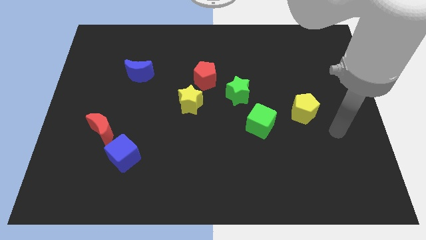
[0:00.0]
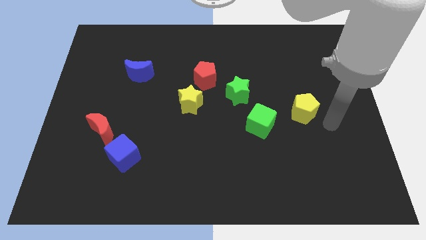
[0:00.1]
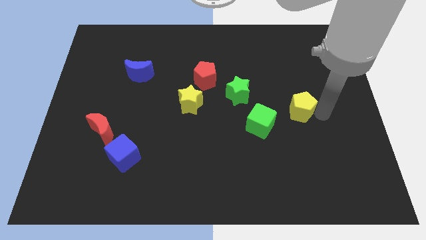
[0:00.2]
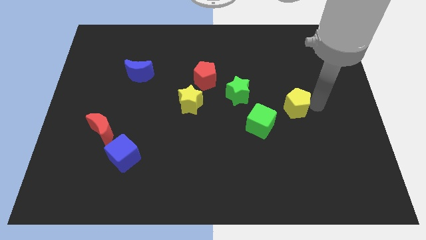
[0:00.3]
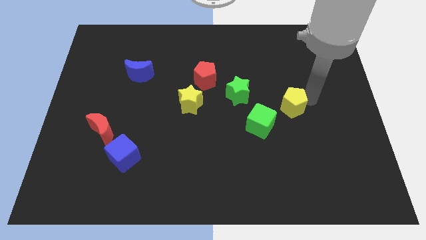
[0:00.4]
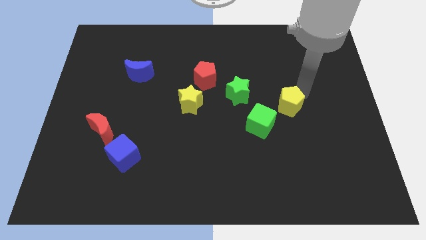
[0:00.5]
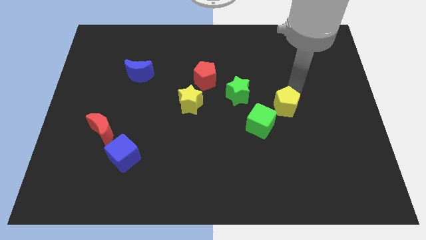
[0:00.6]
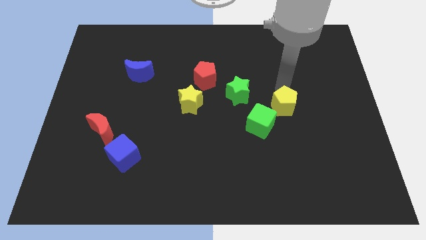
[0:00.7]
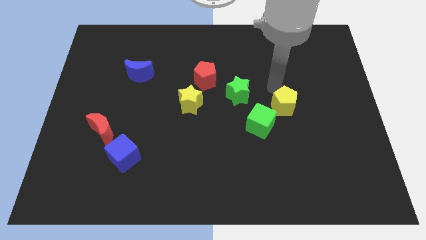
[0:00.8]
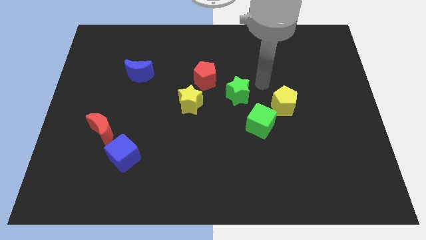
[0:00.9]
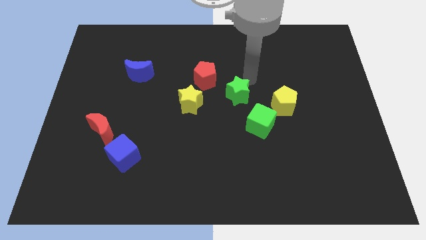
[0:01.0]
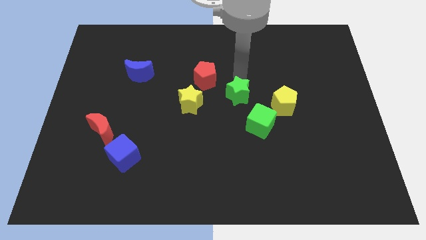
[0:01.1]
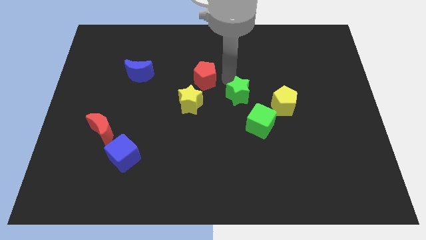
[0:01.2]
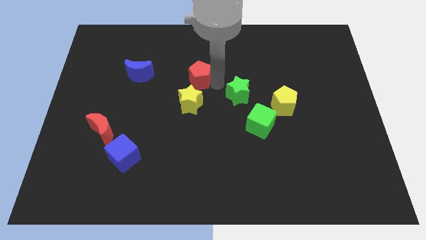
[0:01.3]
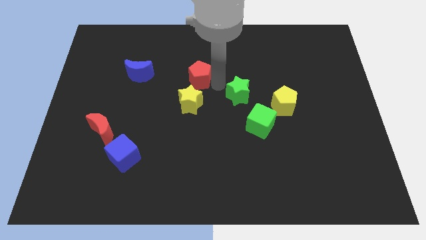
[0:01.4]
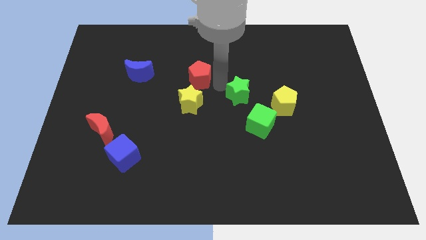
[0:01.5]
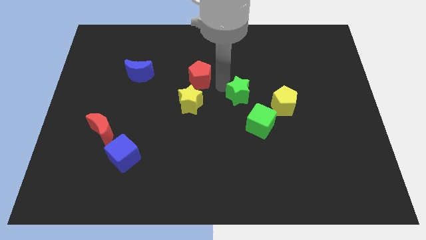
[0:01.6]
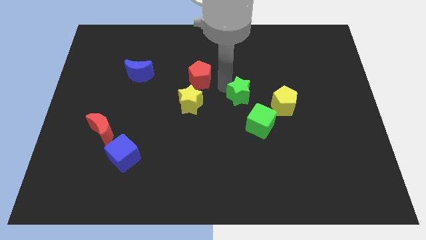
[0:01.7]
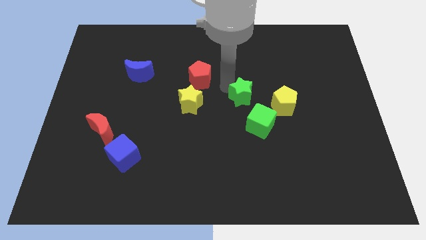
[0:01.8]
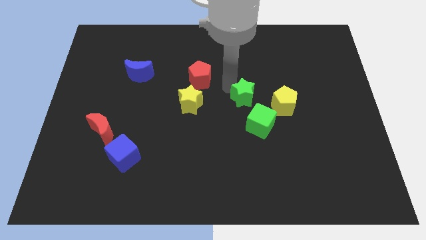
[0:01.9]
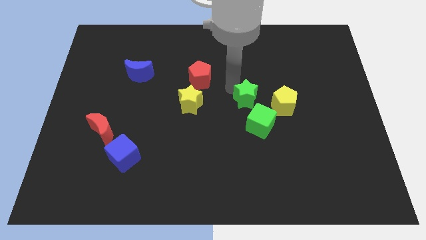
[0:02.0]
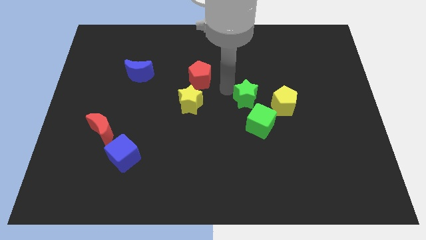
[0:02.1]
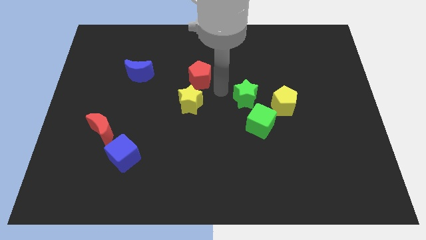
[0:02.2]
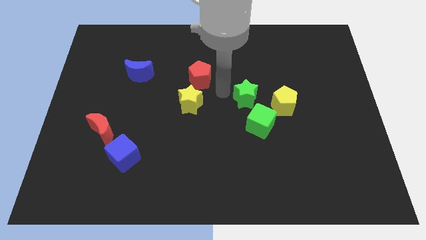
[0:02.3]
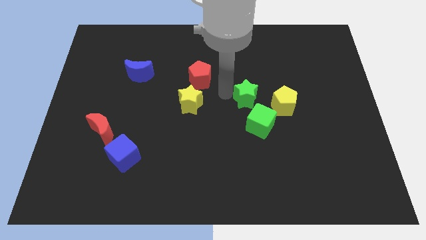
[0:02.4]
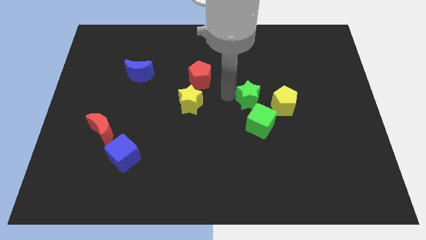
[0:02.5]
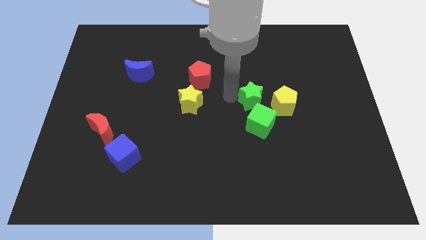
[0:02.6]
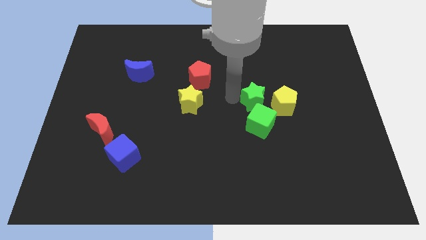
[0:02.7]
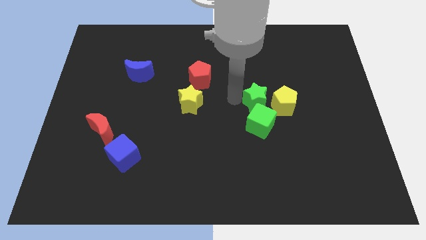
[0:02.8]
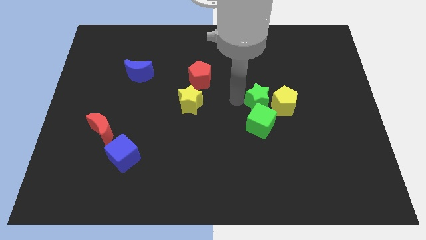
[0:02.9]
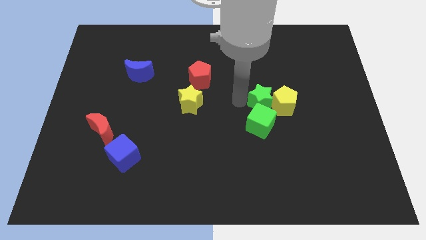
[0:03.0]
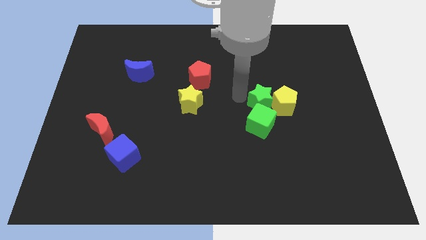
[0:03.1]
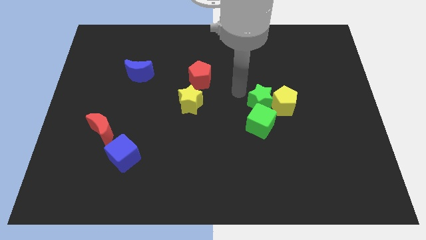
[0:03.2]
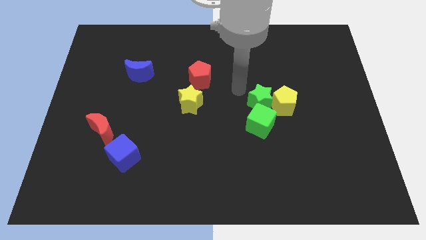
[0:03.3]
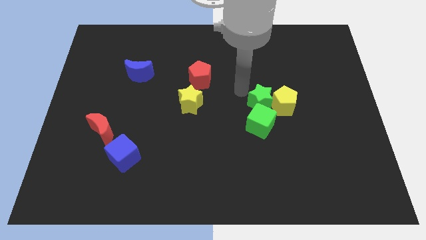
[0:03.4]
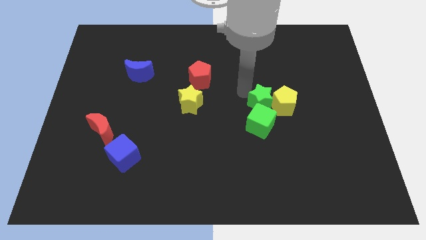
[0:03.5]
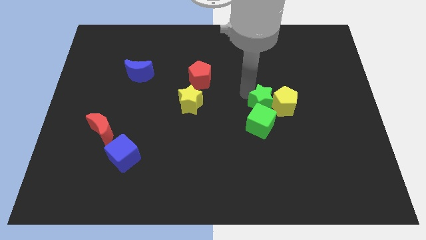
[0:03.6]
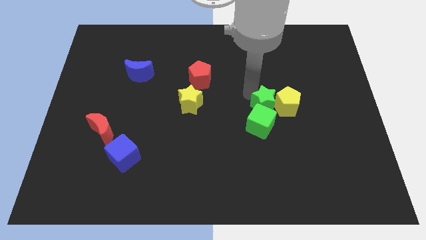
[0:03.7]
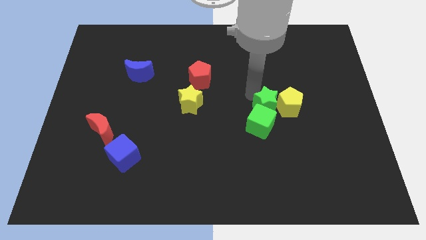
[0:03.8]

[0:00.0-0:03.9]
move the green star downwards and then to the right a little bit

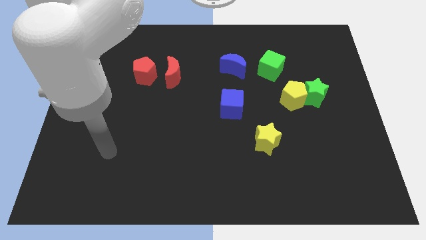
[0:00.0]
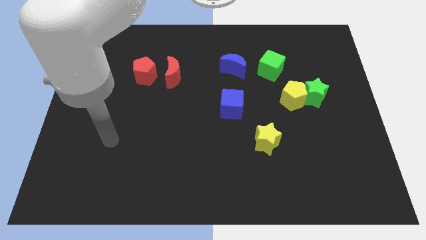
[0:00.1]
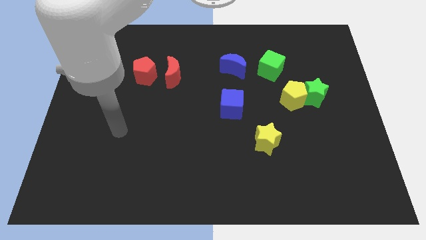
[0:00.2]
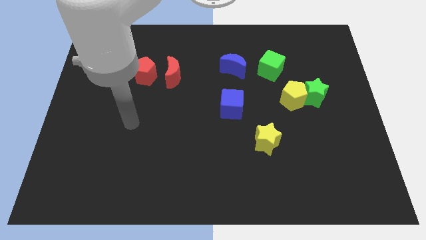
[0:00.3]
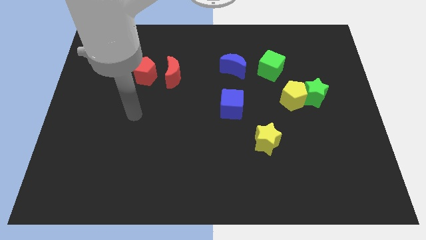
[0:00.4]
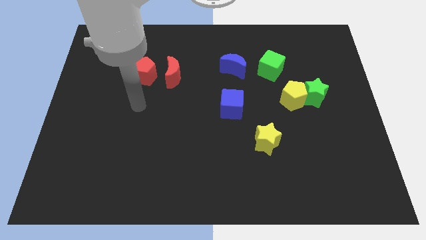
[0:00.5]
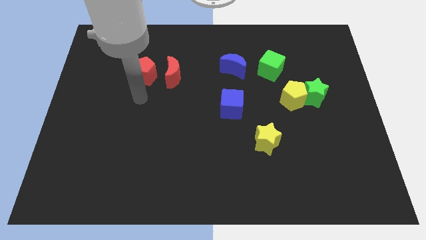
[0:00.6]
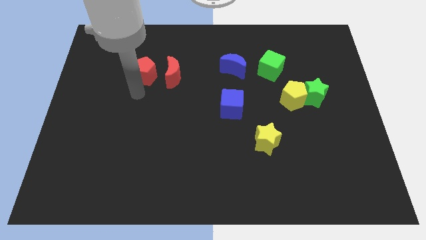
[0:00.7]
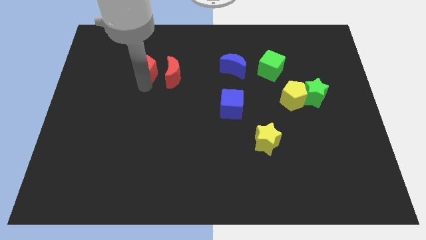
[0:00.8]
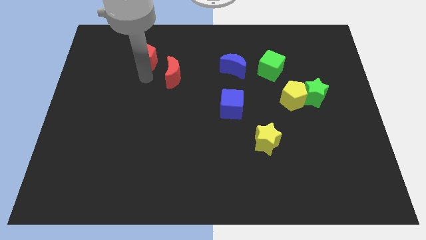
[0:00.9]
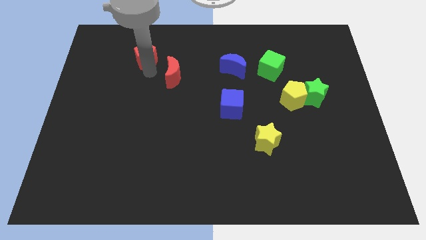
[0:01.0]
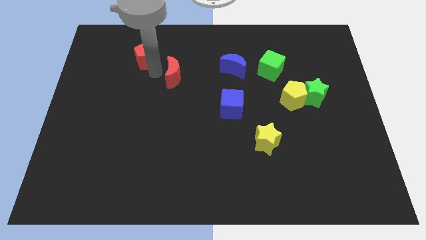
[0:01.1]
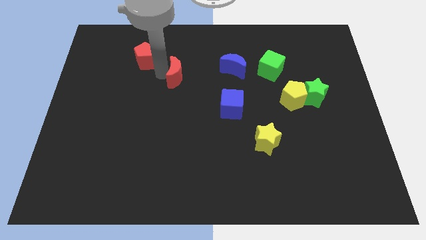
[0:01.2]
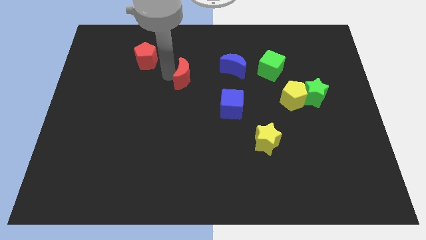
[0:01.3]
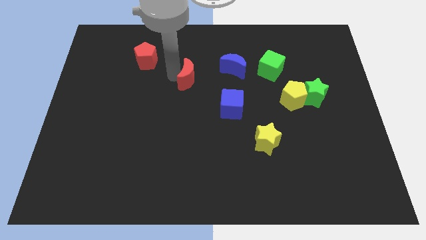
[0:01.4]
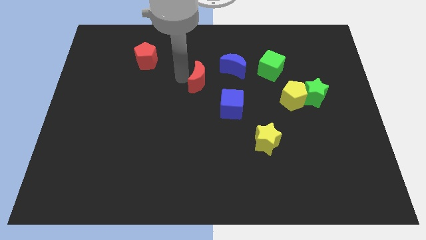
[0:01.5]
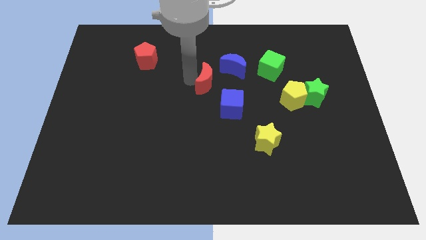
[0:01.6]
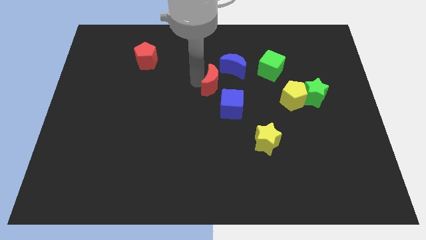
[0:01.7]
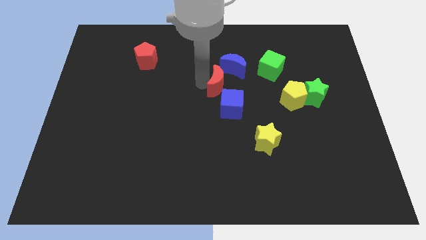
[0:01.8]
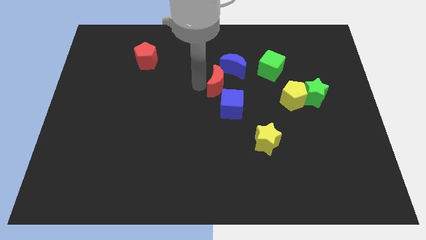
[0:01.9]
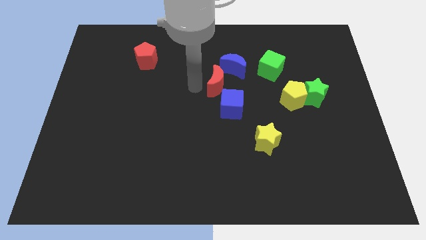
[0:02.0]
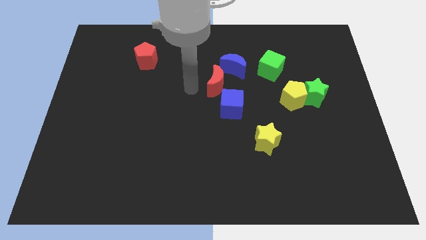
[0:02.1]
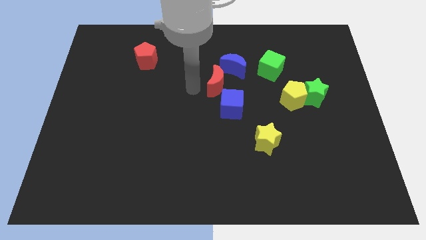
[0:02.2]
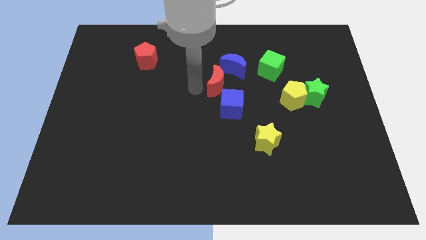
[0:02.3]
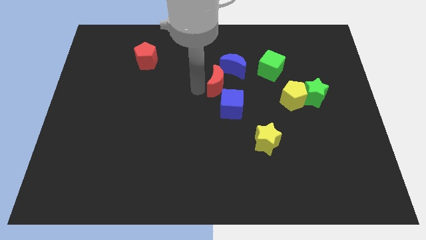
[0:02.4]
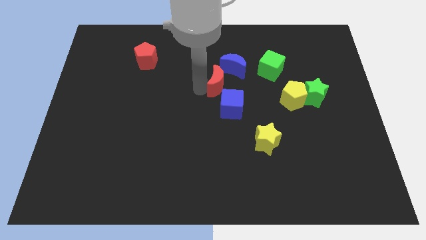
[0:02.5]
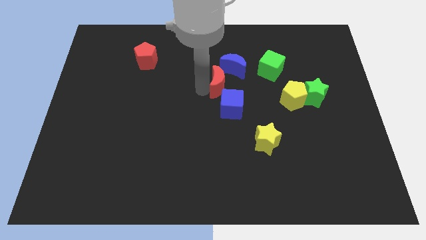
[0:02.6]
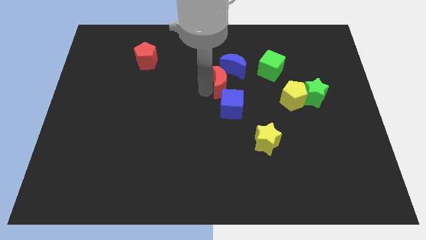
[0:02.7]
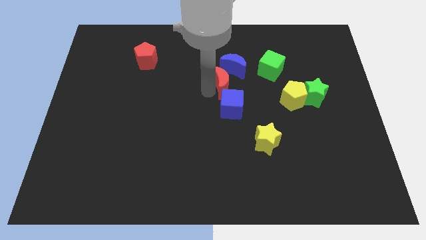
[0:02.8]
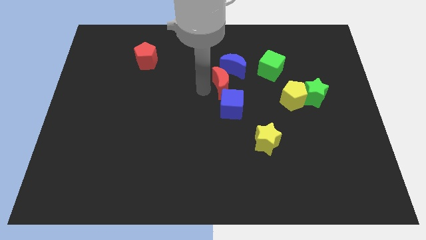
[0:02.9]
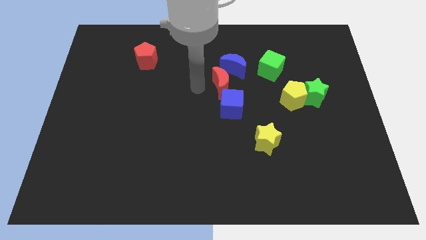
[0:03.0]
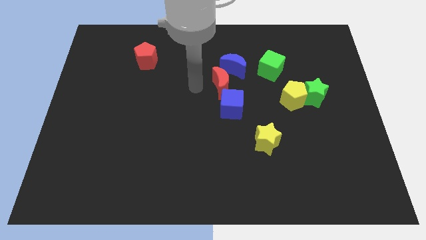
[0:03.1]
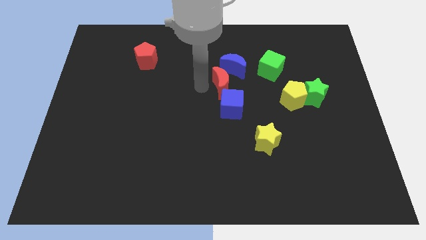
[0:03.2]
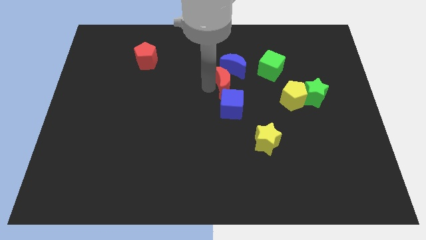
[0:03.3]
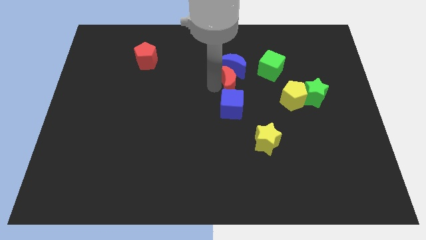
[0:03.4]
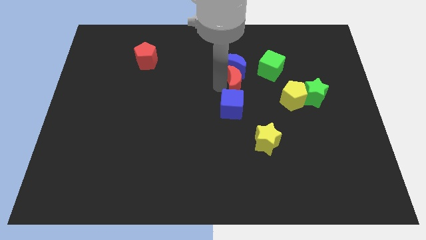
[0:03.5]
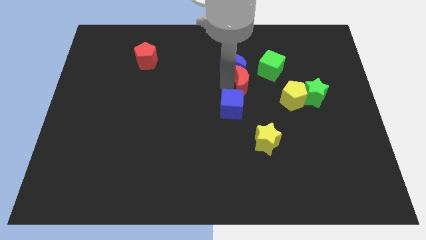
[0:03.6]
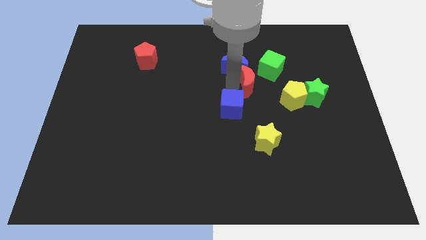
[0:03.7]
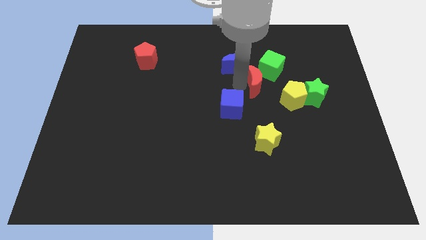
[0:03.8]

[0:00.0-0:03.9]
push the red moon to the right

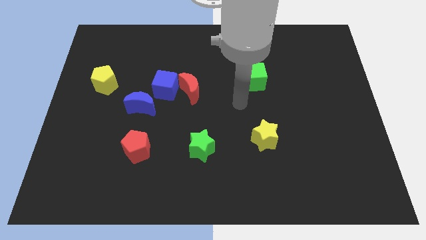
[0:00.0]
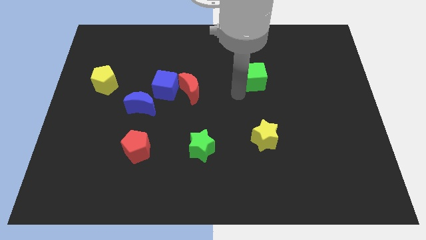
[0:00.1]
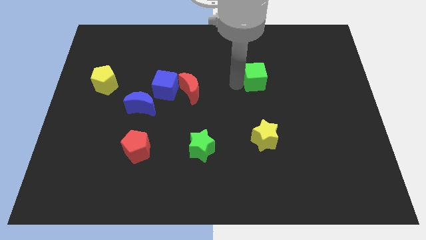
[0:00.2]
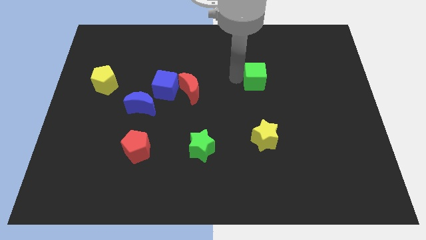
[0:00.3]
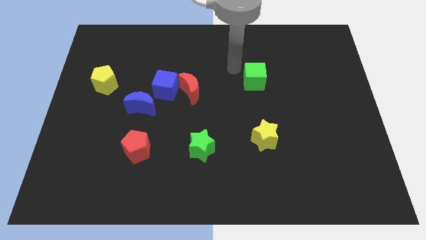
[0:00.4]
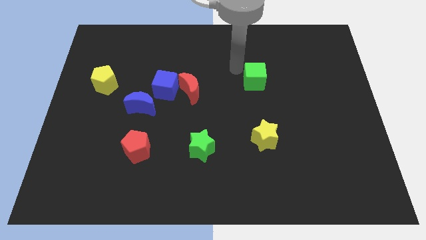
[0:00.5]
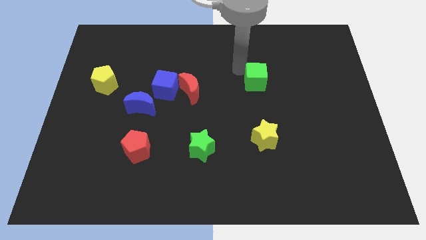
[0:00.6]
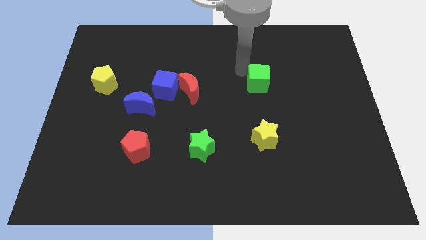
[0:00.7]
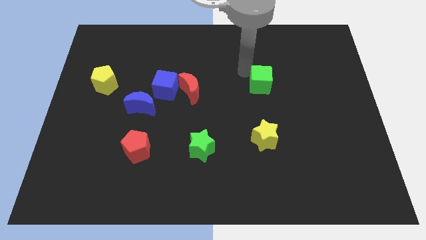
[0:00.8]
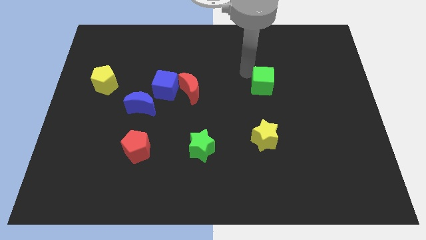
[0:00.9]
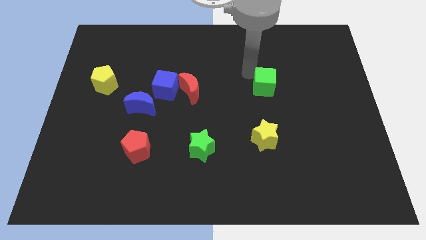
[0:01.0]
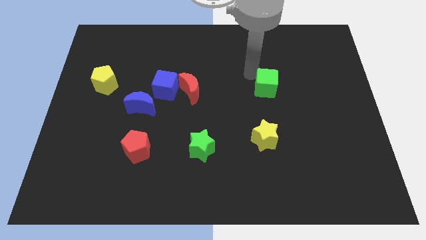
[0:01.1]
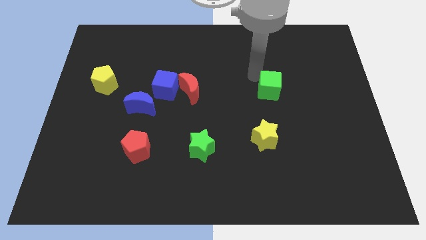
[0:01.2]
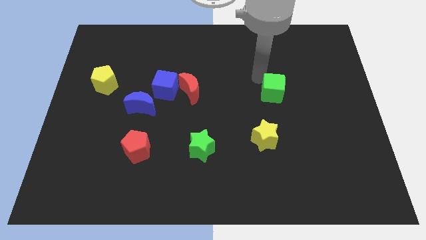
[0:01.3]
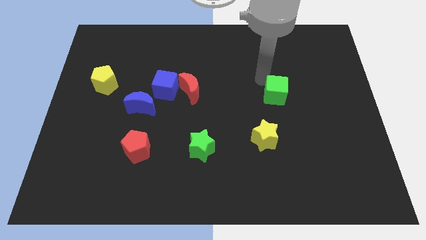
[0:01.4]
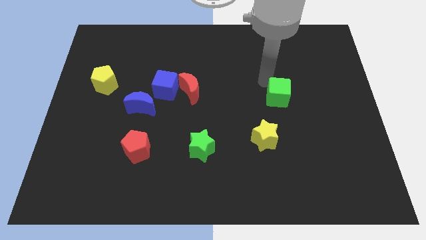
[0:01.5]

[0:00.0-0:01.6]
slide the green cube diagonally down and right a little
